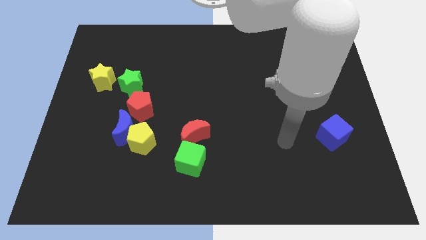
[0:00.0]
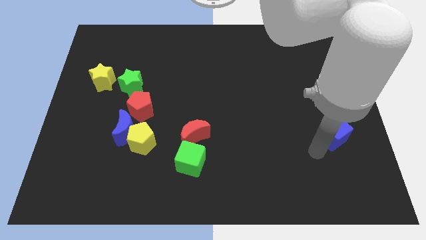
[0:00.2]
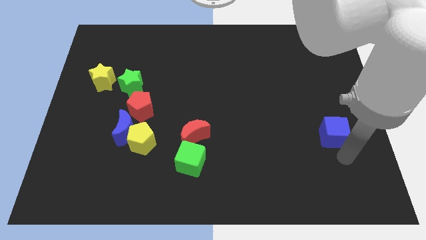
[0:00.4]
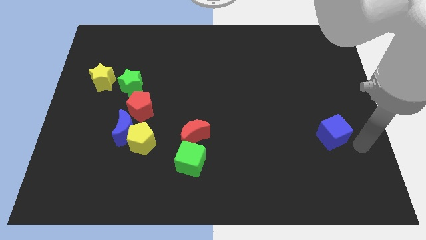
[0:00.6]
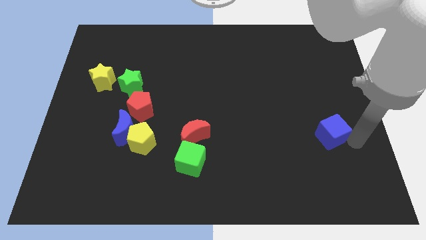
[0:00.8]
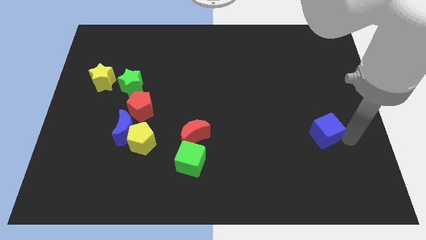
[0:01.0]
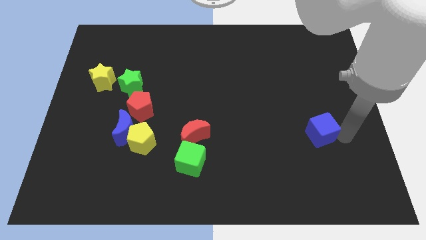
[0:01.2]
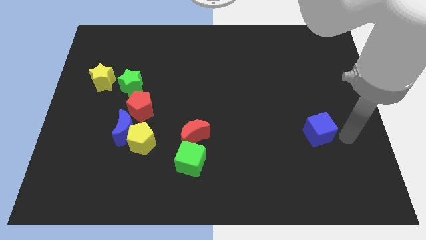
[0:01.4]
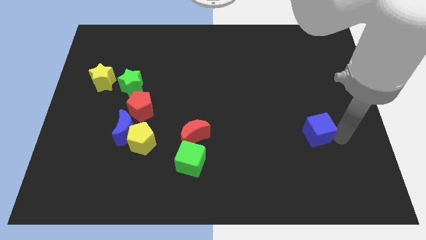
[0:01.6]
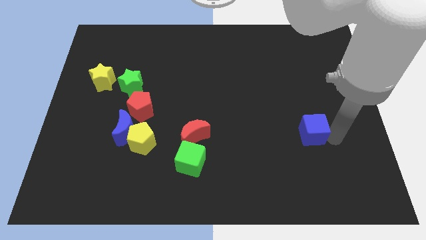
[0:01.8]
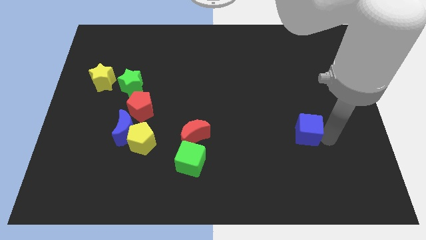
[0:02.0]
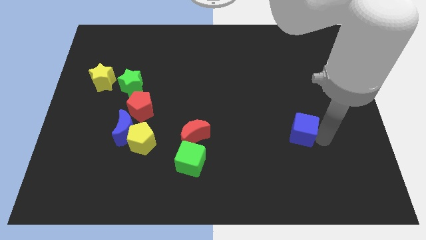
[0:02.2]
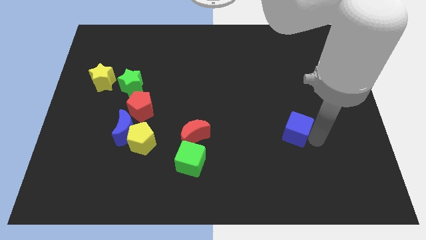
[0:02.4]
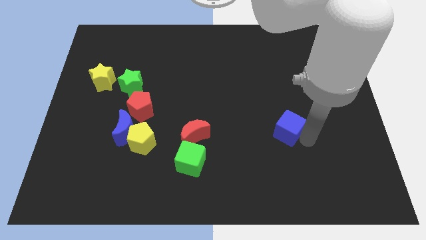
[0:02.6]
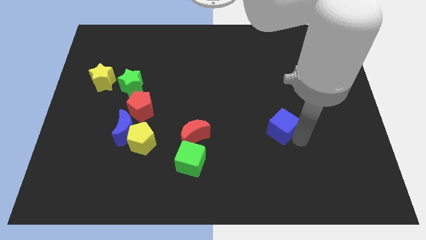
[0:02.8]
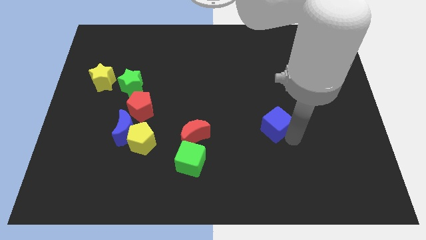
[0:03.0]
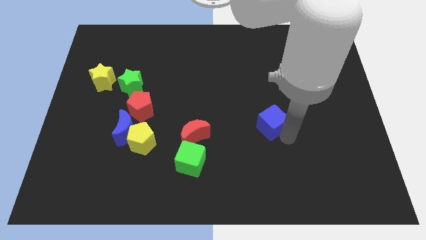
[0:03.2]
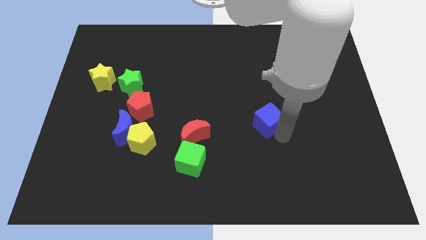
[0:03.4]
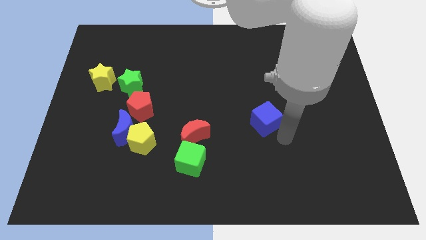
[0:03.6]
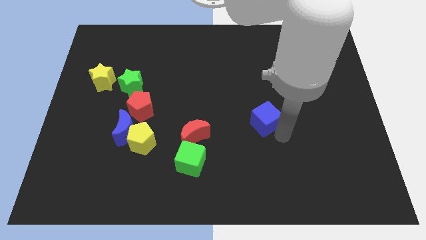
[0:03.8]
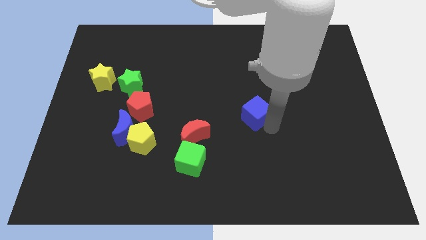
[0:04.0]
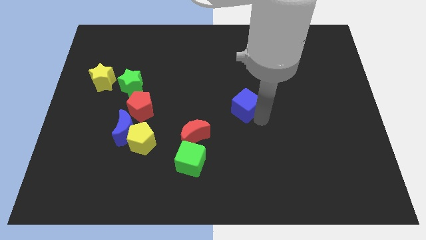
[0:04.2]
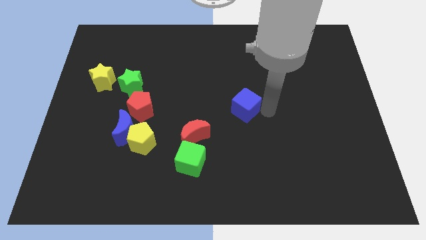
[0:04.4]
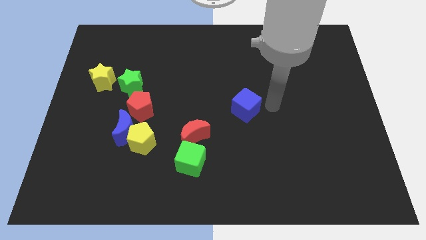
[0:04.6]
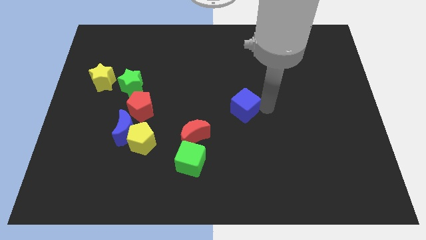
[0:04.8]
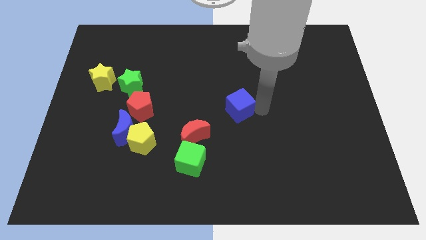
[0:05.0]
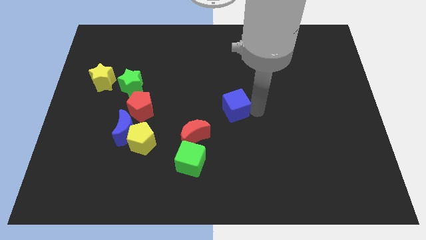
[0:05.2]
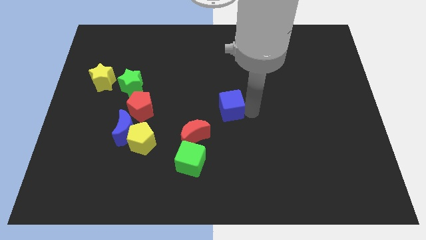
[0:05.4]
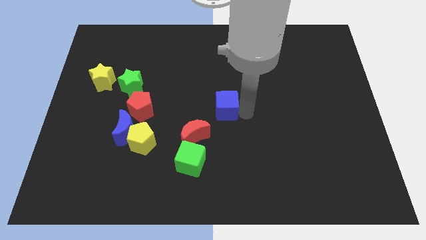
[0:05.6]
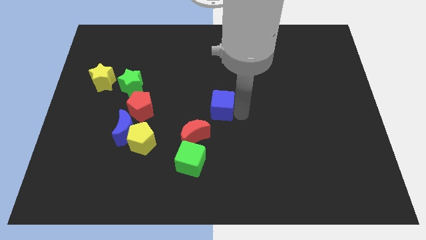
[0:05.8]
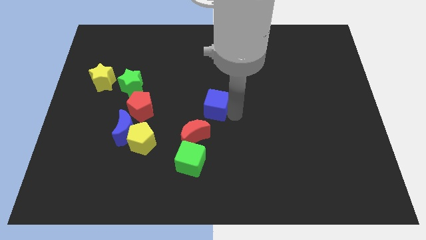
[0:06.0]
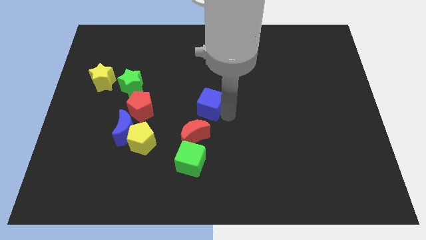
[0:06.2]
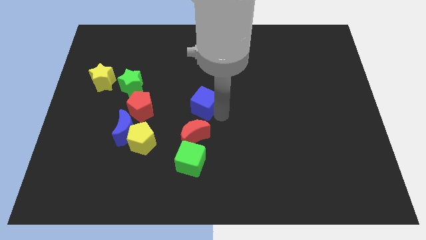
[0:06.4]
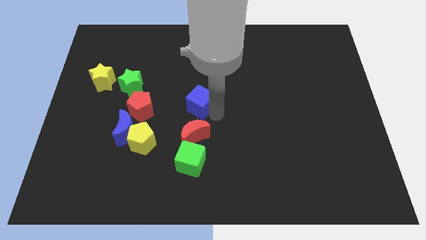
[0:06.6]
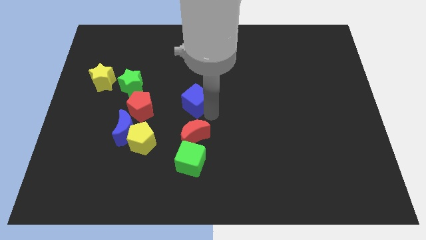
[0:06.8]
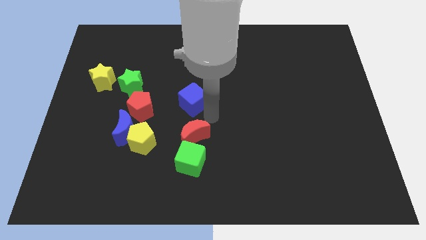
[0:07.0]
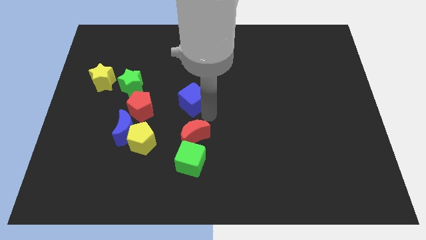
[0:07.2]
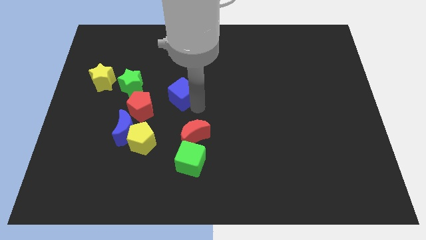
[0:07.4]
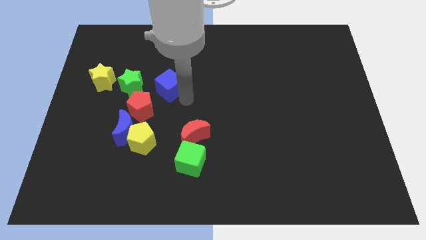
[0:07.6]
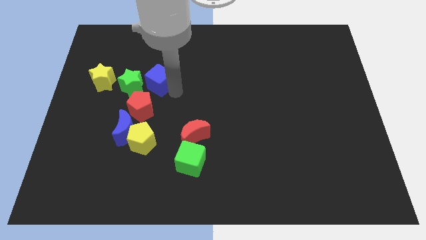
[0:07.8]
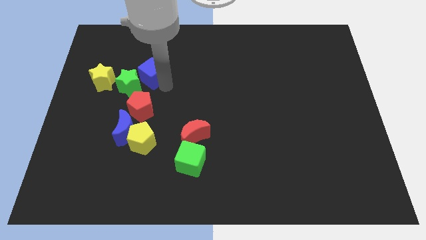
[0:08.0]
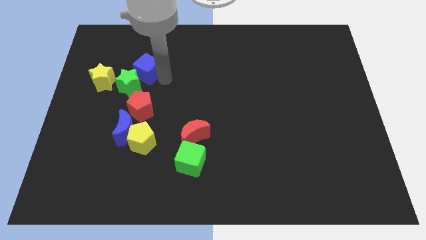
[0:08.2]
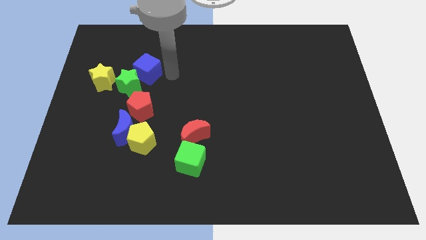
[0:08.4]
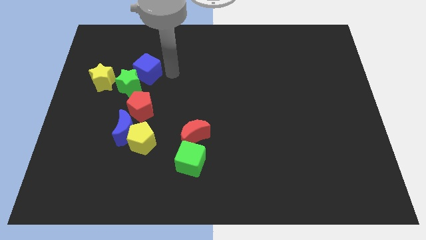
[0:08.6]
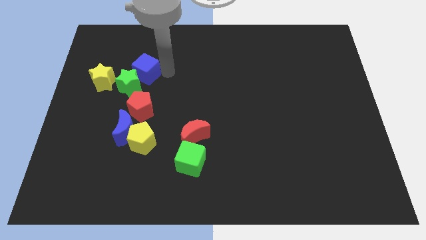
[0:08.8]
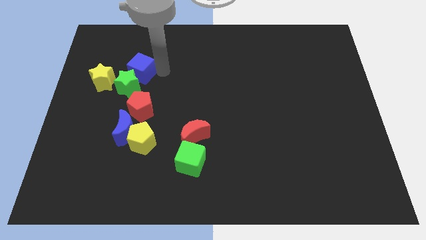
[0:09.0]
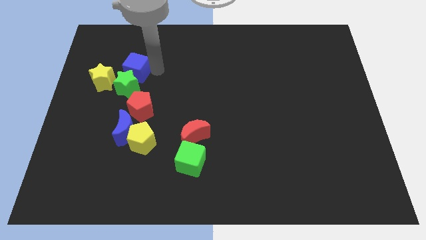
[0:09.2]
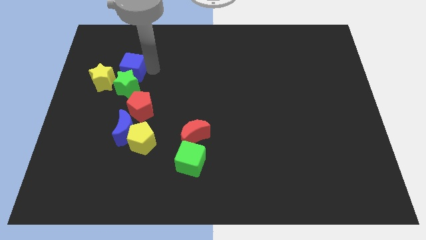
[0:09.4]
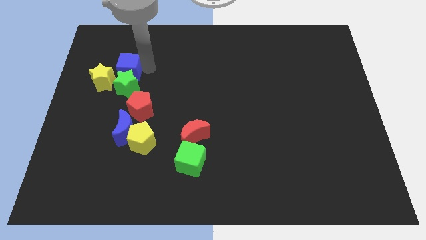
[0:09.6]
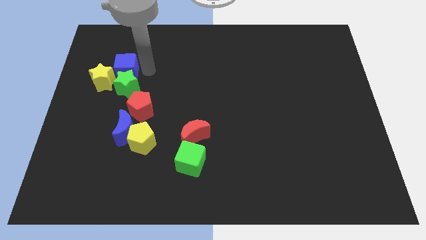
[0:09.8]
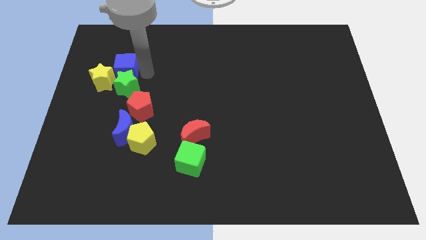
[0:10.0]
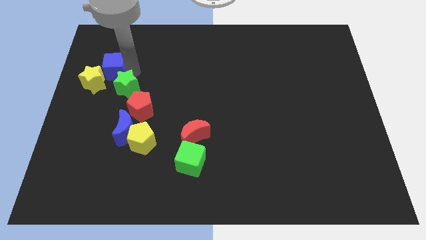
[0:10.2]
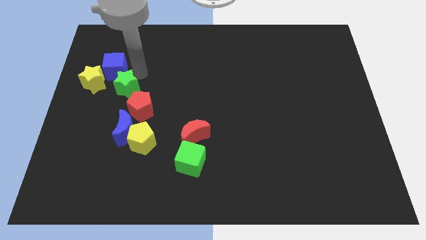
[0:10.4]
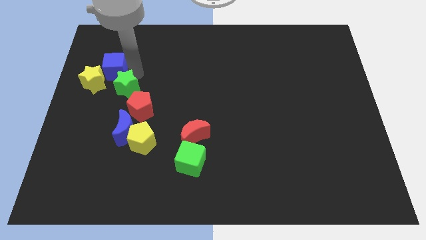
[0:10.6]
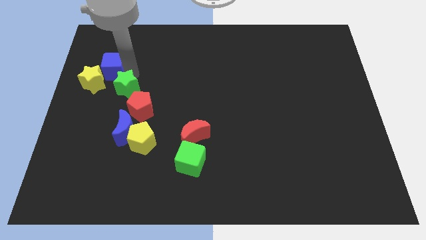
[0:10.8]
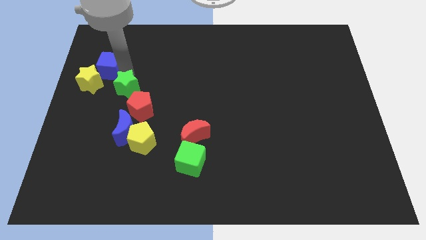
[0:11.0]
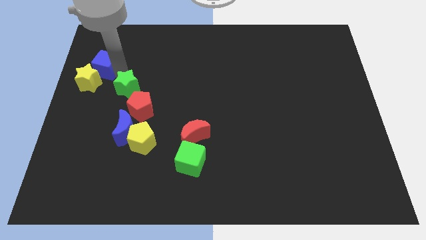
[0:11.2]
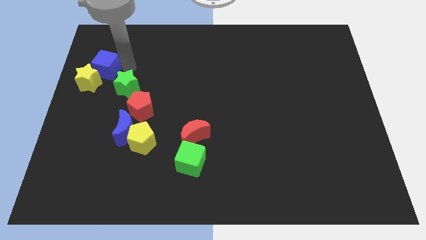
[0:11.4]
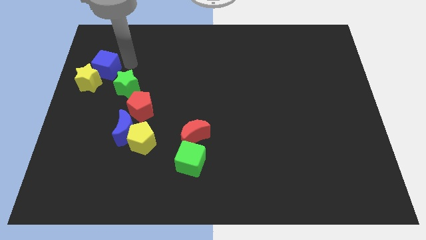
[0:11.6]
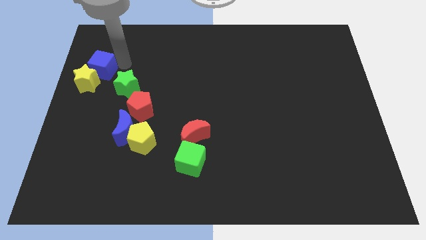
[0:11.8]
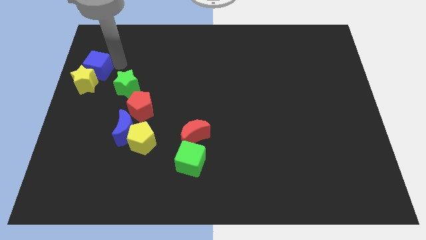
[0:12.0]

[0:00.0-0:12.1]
slide the blue cube to the left side of the board

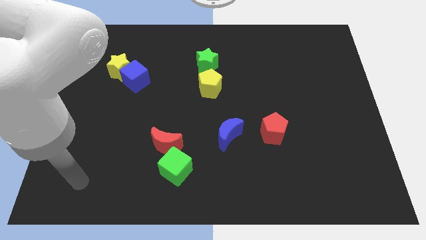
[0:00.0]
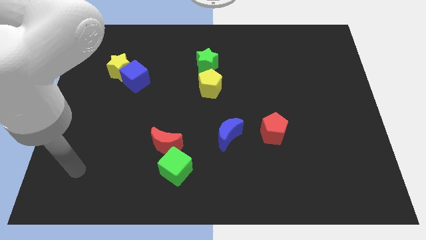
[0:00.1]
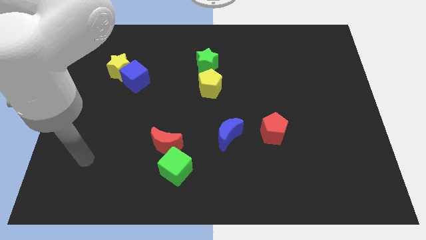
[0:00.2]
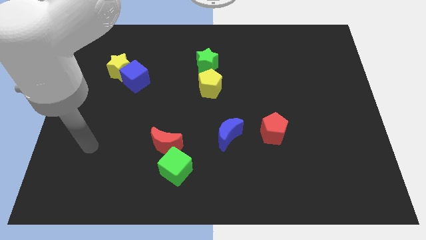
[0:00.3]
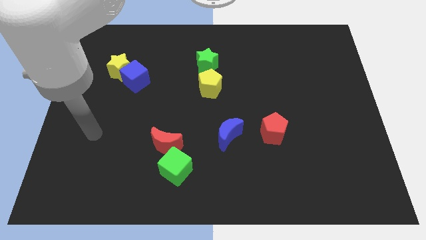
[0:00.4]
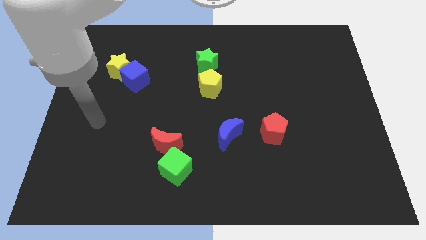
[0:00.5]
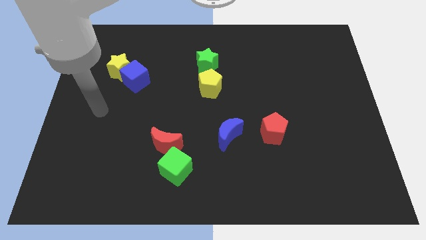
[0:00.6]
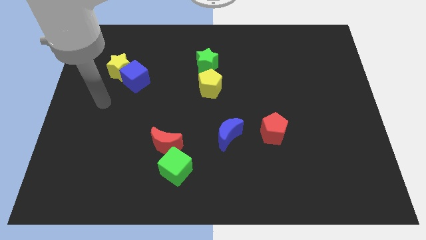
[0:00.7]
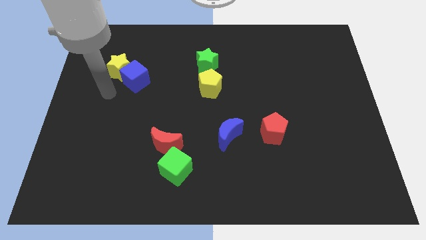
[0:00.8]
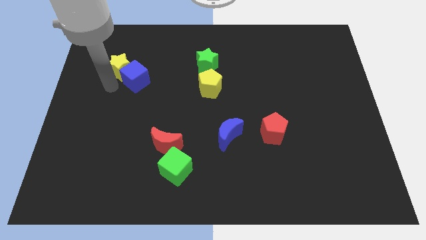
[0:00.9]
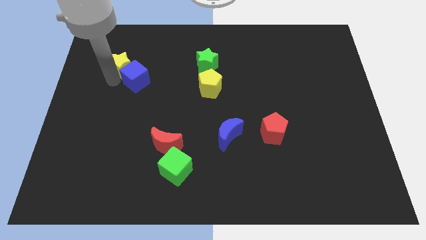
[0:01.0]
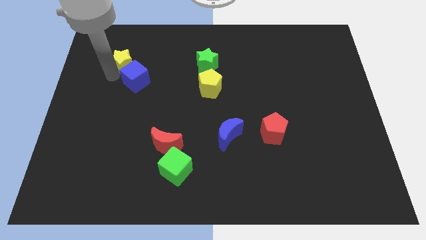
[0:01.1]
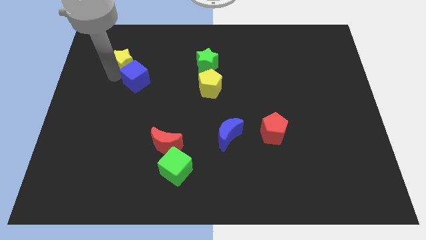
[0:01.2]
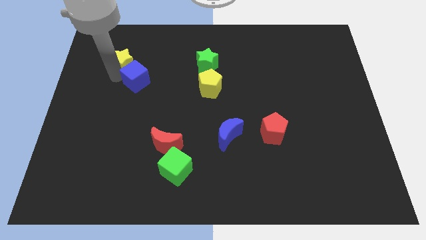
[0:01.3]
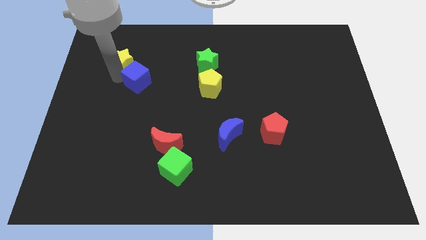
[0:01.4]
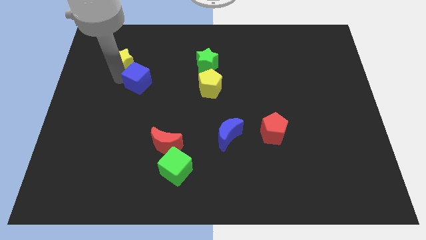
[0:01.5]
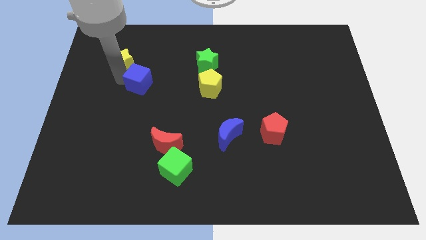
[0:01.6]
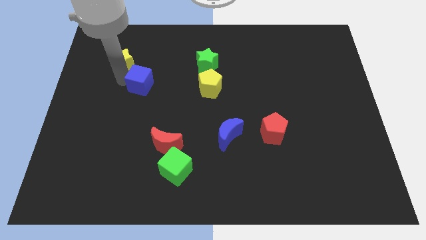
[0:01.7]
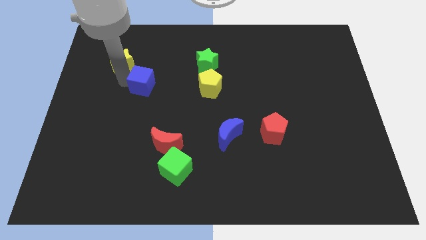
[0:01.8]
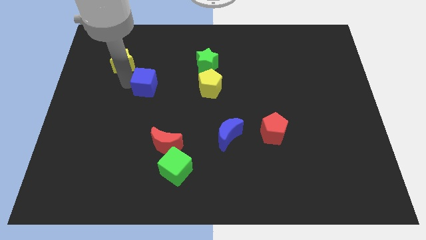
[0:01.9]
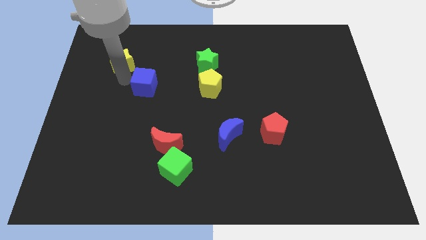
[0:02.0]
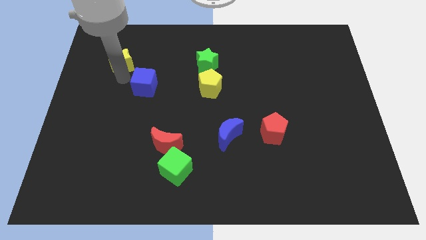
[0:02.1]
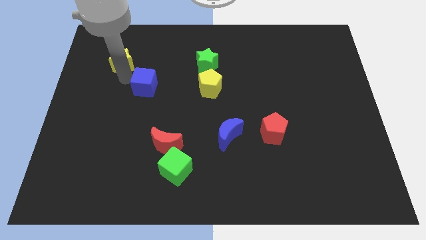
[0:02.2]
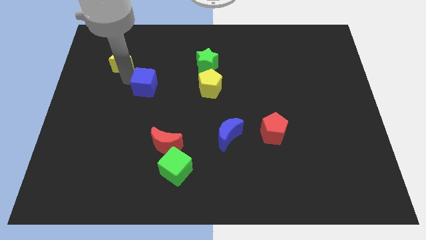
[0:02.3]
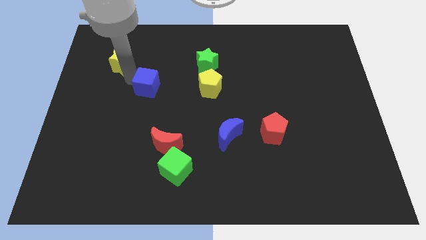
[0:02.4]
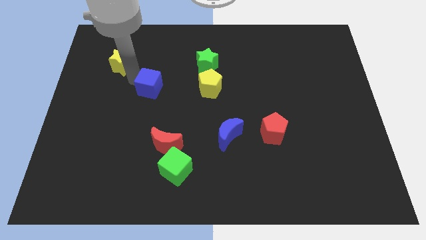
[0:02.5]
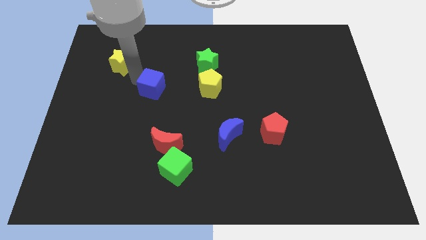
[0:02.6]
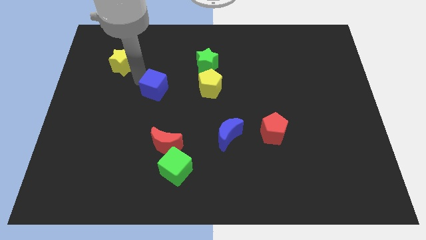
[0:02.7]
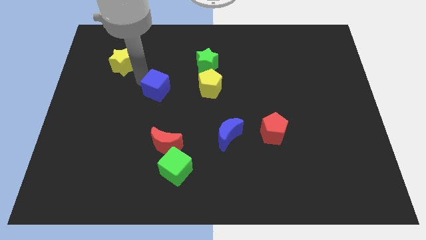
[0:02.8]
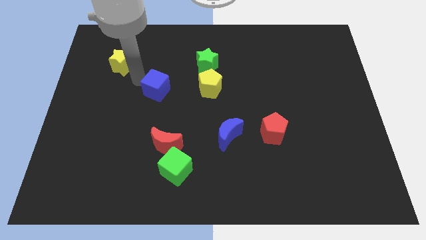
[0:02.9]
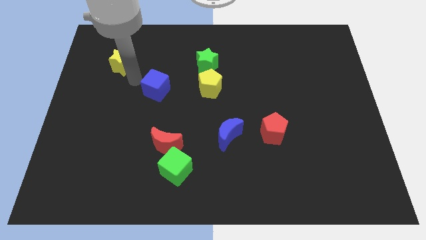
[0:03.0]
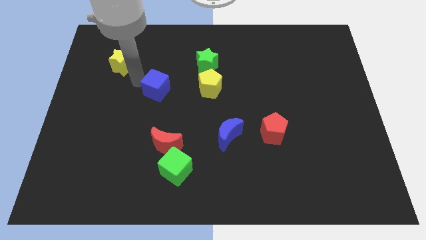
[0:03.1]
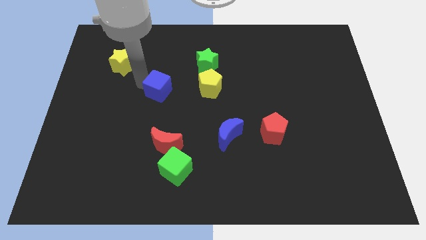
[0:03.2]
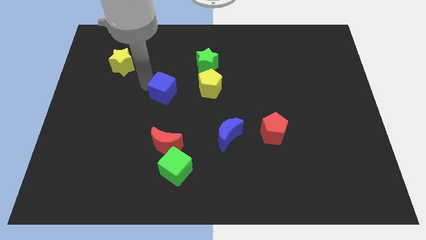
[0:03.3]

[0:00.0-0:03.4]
slide the blue cube to the center
